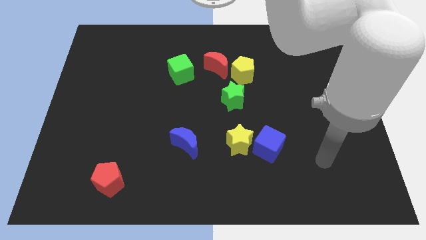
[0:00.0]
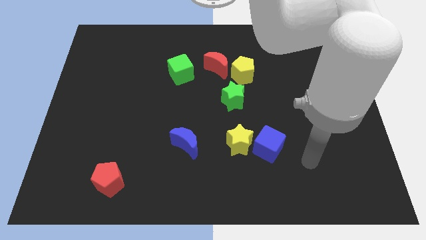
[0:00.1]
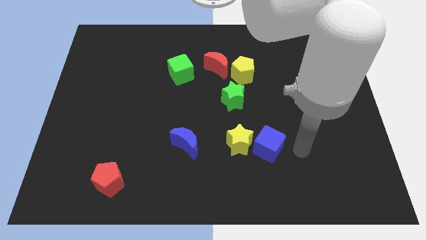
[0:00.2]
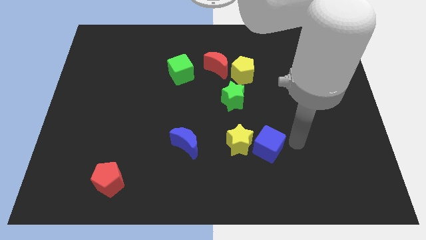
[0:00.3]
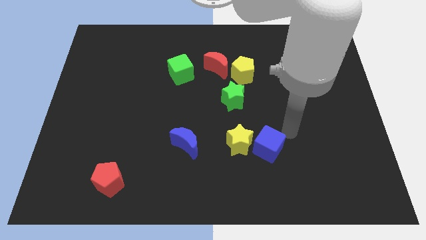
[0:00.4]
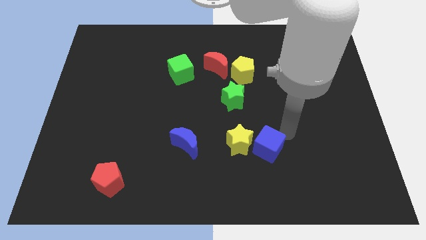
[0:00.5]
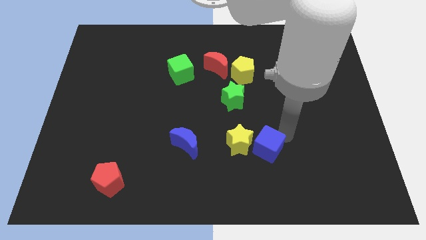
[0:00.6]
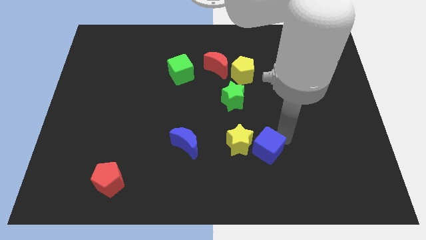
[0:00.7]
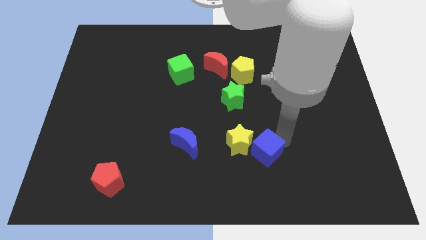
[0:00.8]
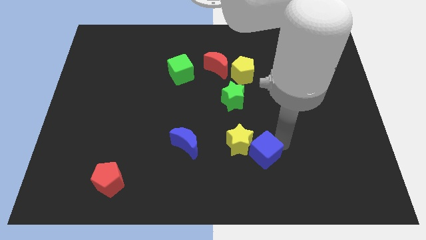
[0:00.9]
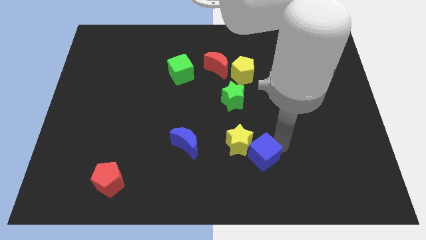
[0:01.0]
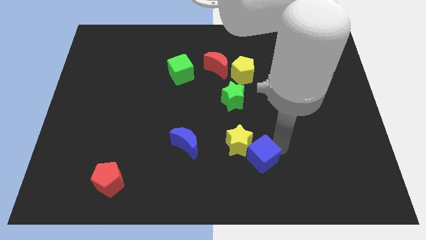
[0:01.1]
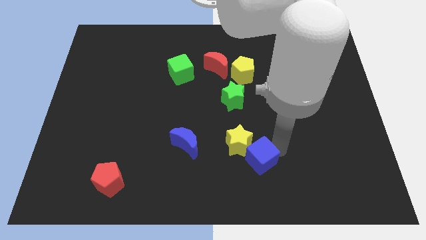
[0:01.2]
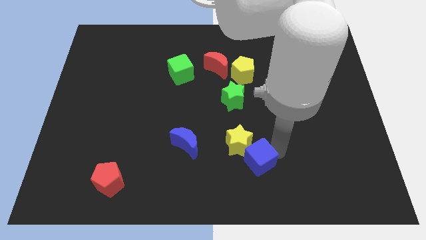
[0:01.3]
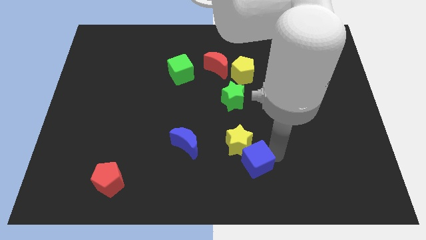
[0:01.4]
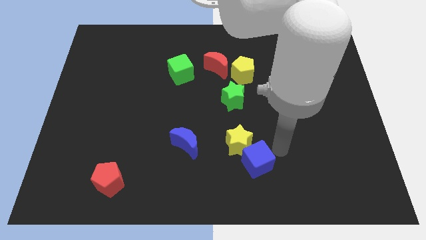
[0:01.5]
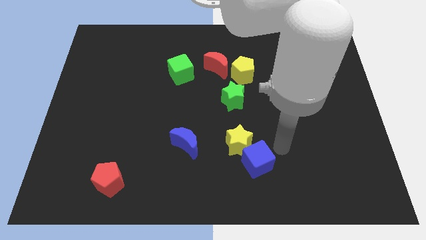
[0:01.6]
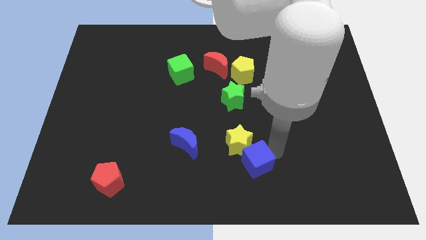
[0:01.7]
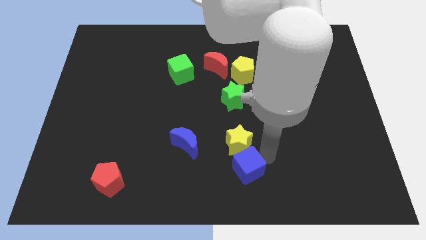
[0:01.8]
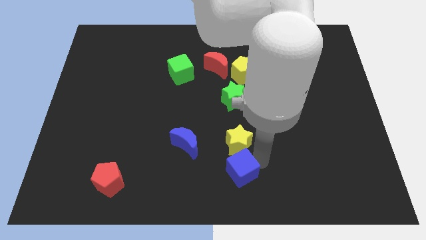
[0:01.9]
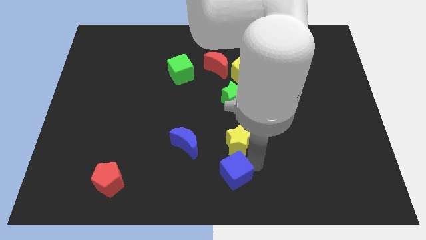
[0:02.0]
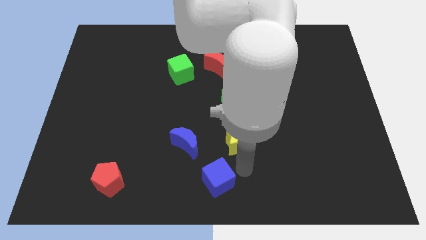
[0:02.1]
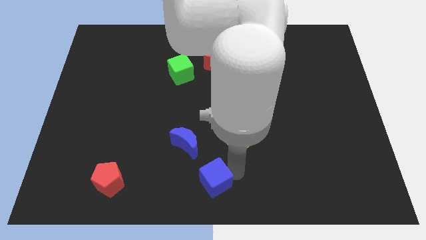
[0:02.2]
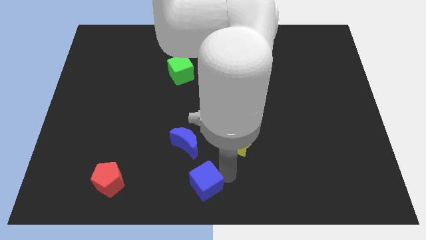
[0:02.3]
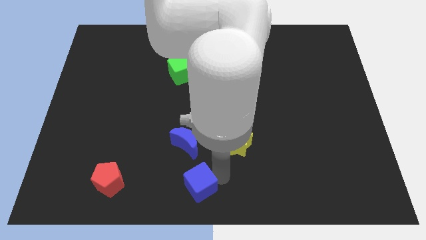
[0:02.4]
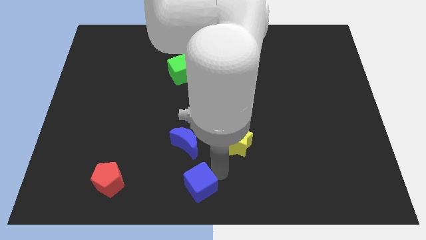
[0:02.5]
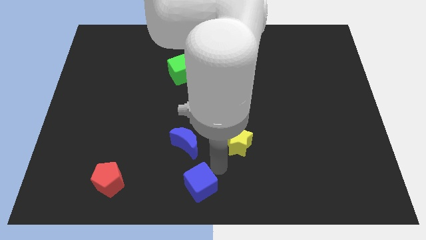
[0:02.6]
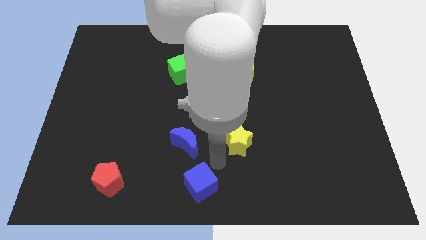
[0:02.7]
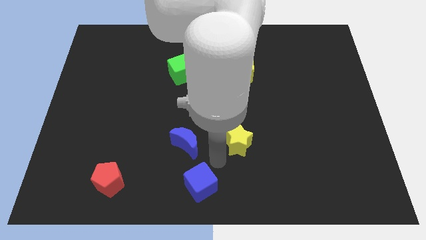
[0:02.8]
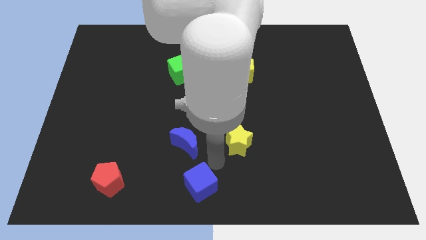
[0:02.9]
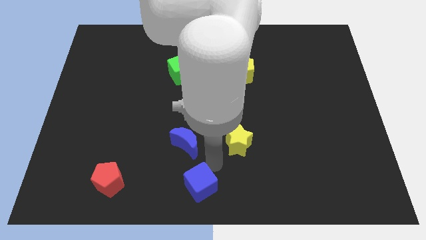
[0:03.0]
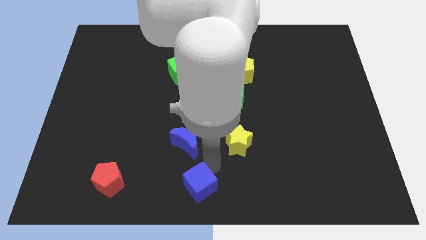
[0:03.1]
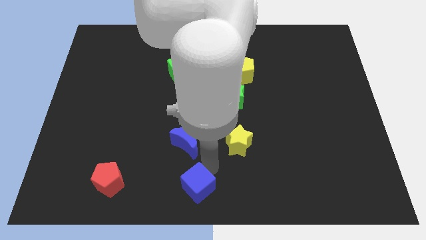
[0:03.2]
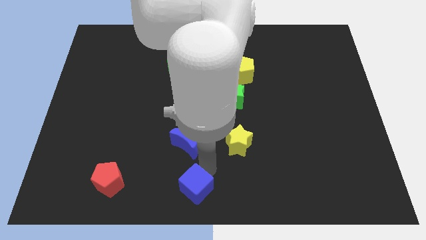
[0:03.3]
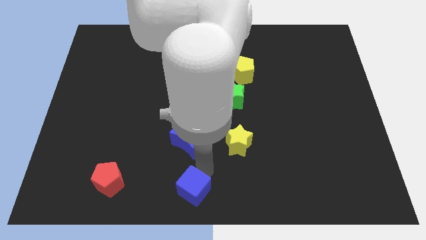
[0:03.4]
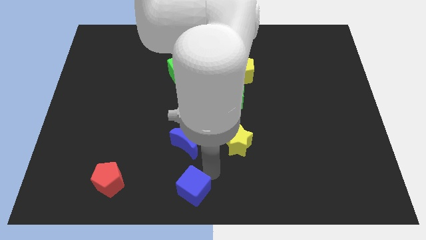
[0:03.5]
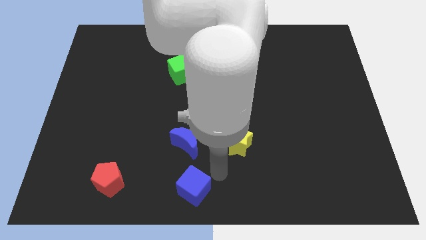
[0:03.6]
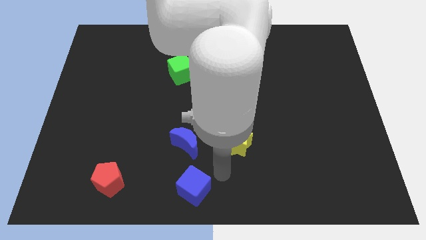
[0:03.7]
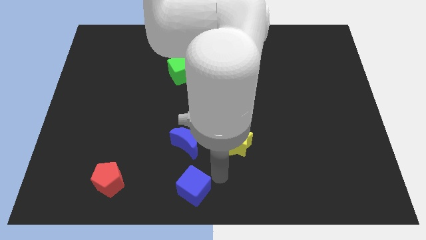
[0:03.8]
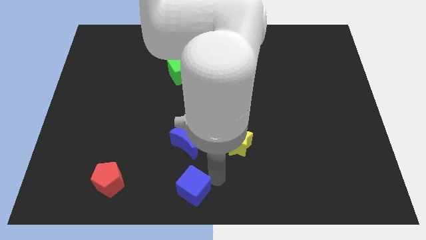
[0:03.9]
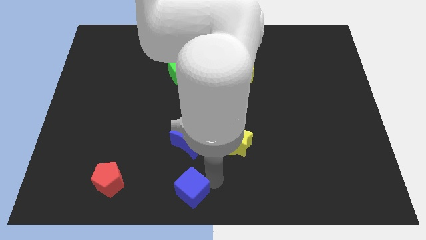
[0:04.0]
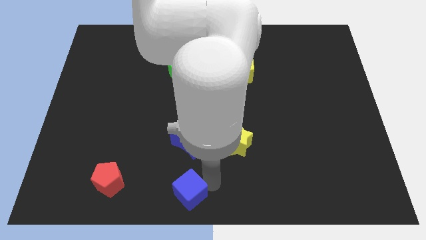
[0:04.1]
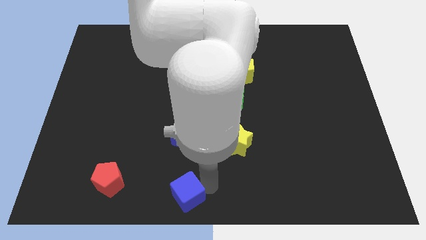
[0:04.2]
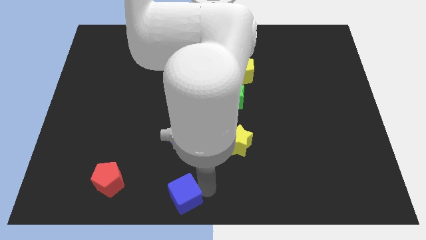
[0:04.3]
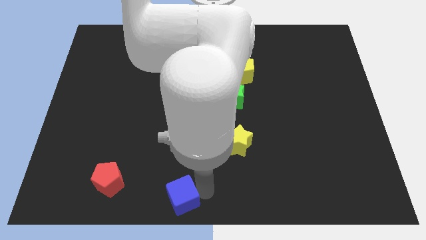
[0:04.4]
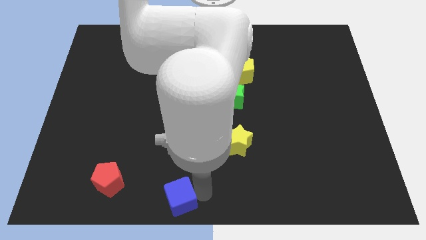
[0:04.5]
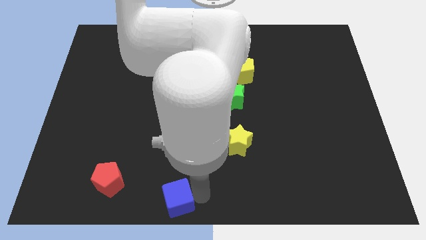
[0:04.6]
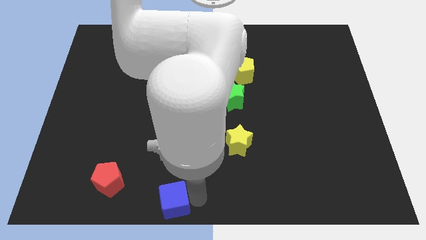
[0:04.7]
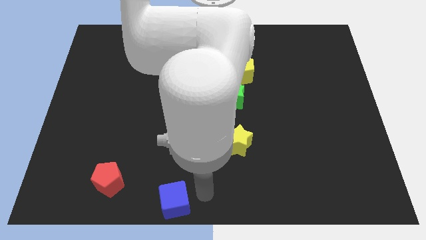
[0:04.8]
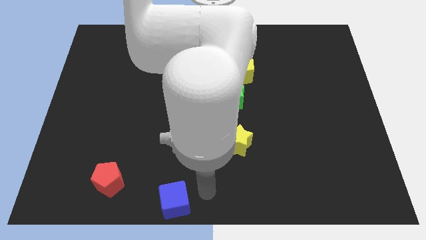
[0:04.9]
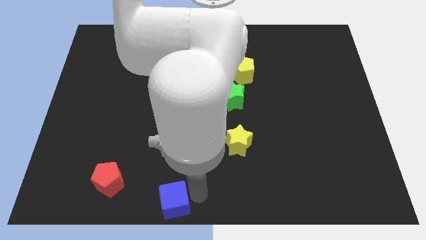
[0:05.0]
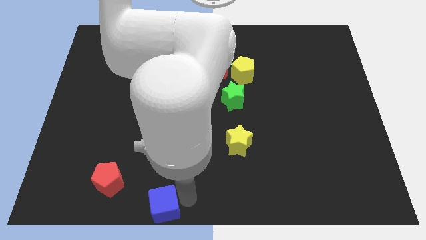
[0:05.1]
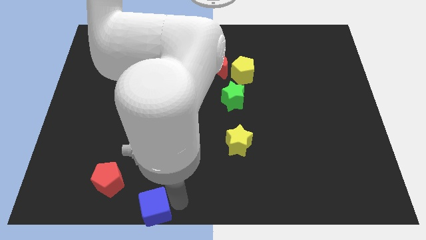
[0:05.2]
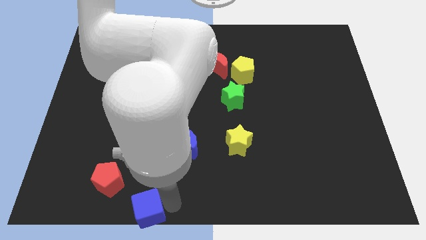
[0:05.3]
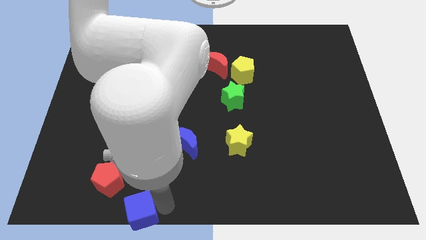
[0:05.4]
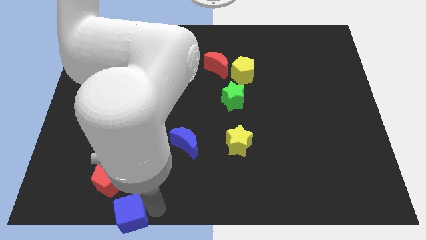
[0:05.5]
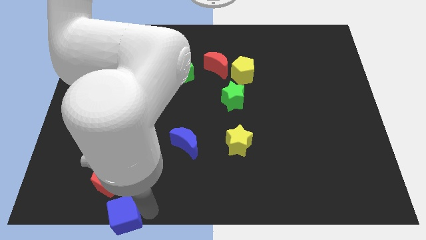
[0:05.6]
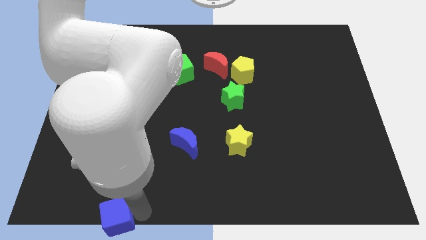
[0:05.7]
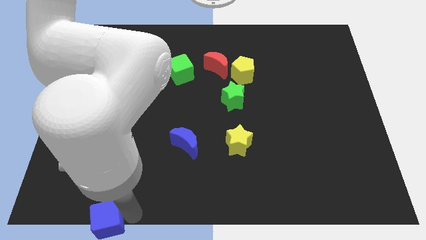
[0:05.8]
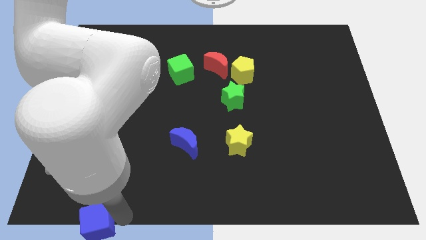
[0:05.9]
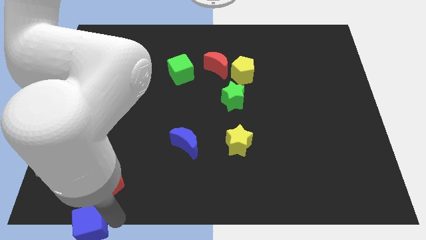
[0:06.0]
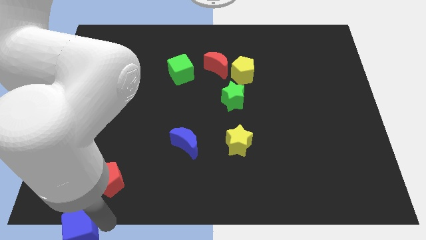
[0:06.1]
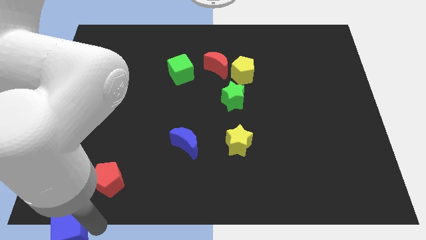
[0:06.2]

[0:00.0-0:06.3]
put the blue cube to the bottom left

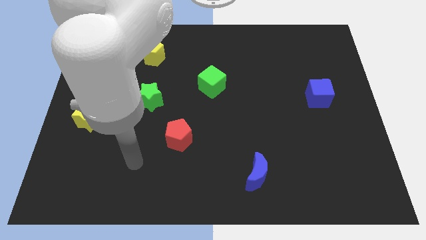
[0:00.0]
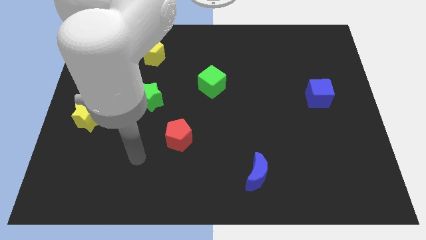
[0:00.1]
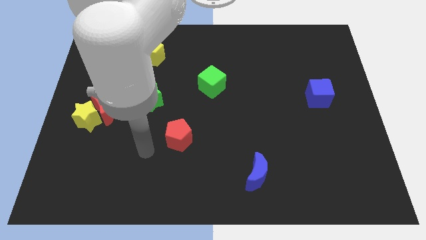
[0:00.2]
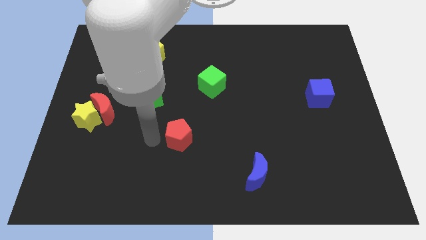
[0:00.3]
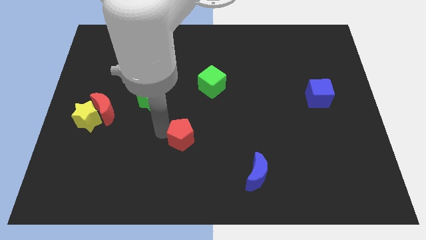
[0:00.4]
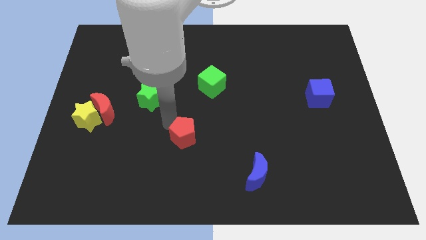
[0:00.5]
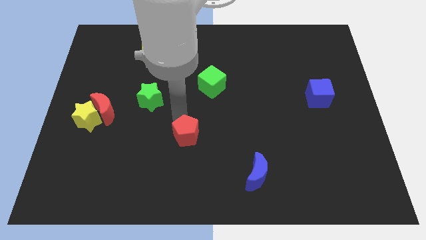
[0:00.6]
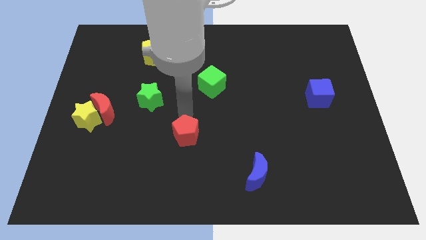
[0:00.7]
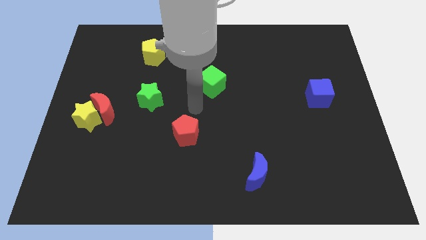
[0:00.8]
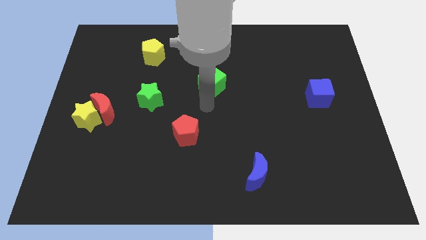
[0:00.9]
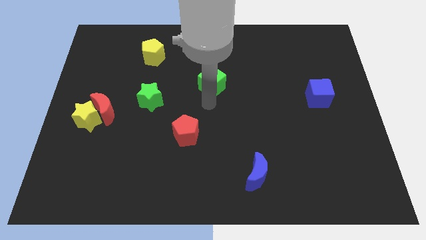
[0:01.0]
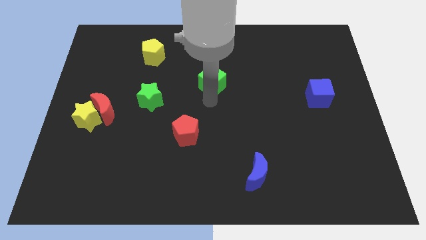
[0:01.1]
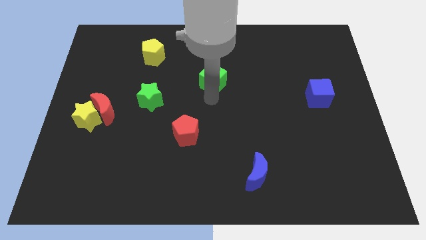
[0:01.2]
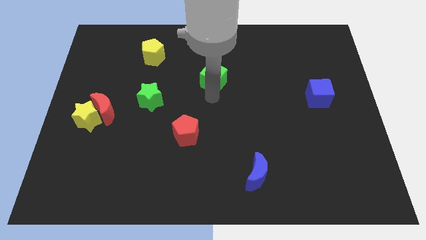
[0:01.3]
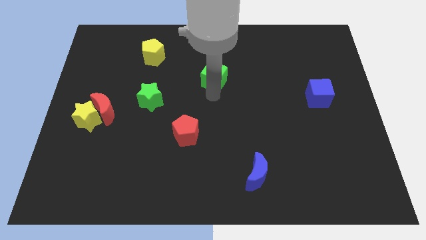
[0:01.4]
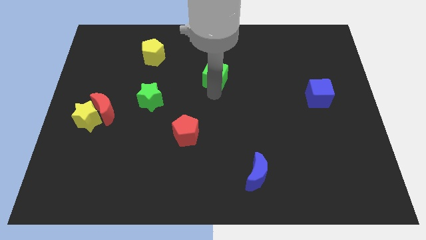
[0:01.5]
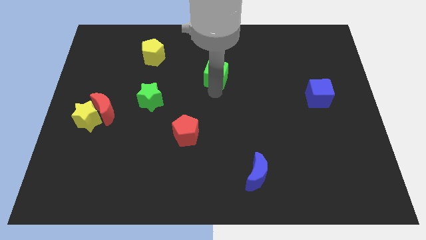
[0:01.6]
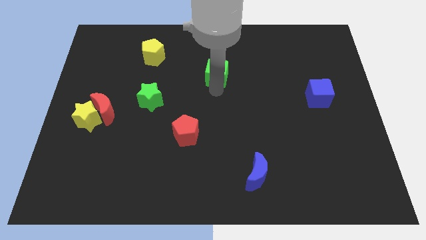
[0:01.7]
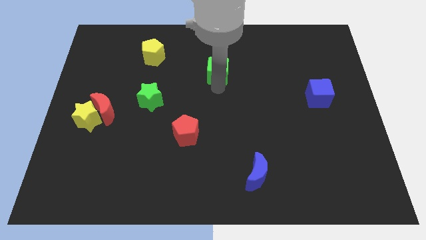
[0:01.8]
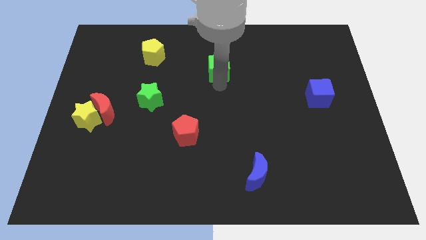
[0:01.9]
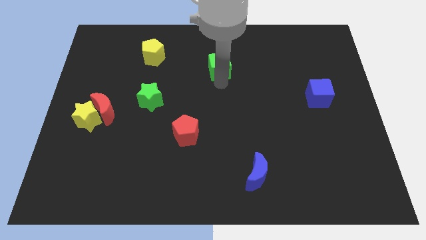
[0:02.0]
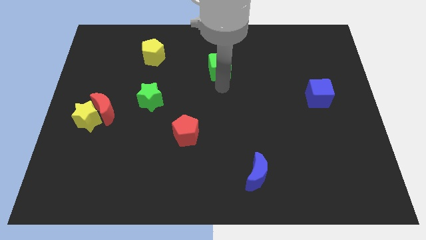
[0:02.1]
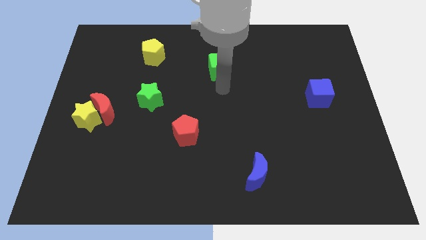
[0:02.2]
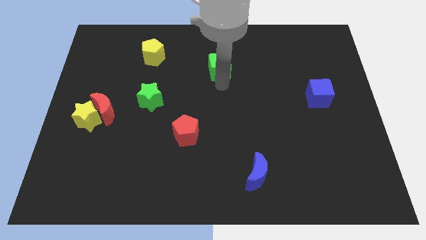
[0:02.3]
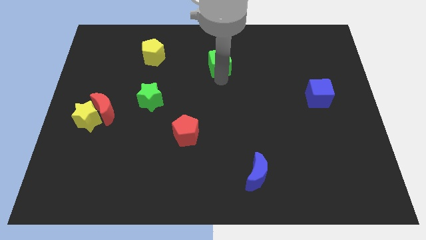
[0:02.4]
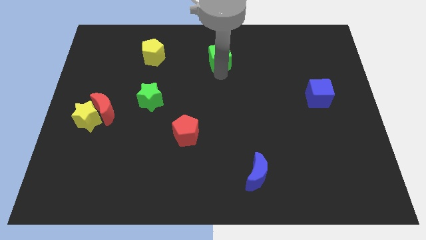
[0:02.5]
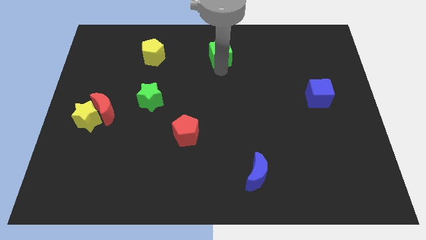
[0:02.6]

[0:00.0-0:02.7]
move the green cube to the top side
